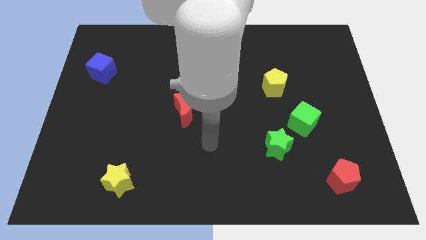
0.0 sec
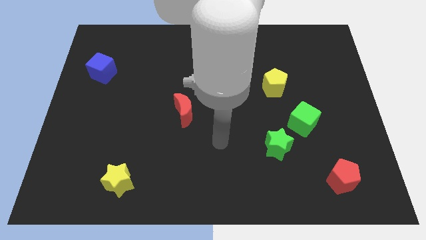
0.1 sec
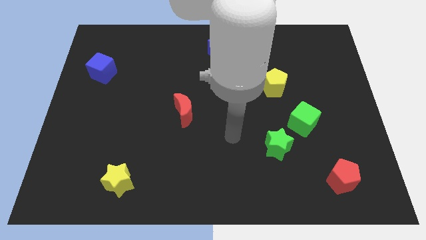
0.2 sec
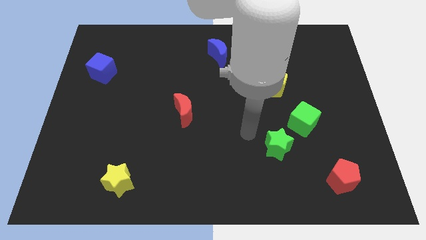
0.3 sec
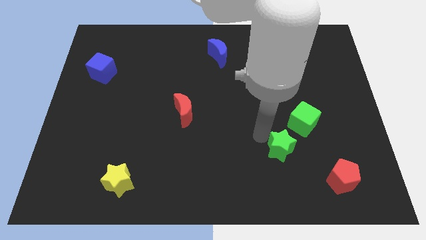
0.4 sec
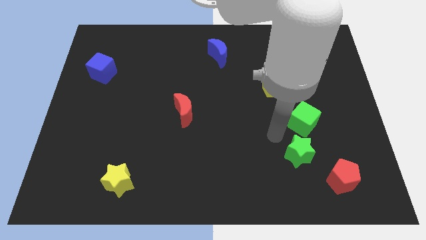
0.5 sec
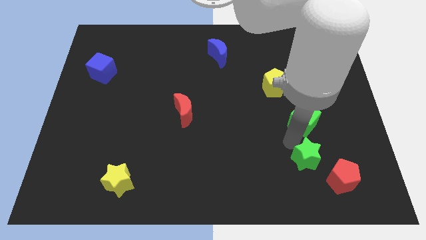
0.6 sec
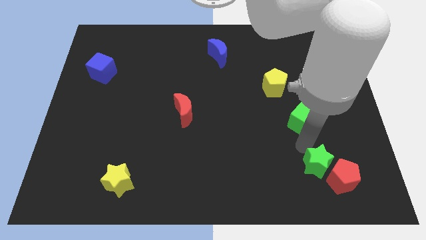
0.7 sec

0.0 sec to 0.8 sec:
separate the green cube from the green star

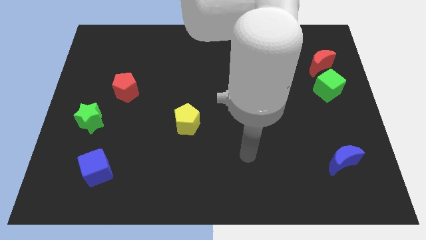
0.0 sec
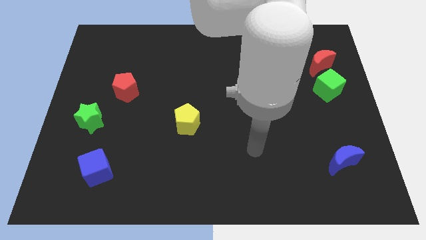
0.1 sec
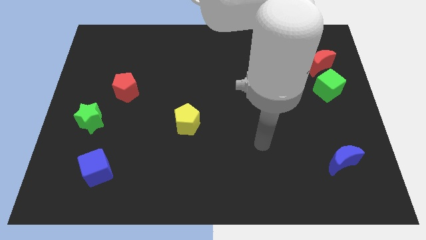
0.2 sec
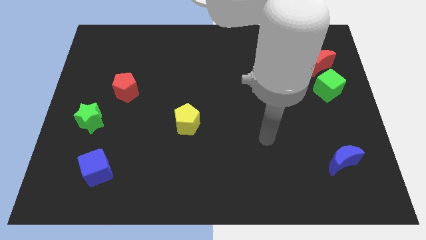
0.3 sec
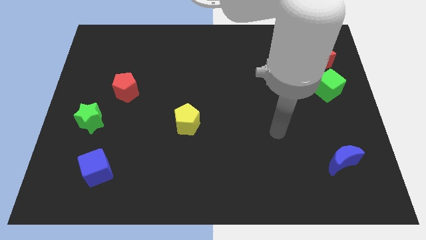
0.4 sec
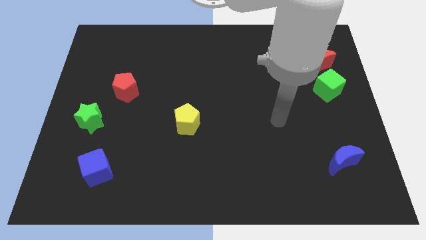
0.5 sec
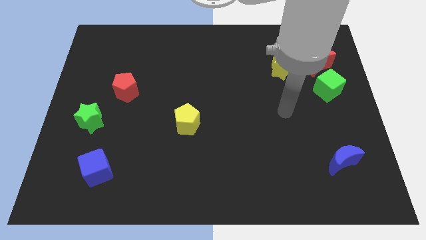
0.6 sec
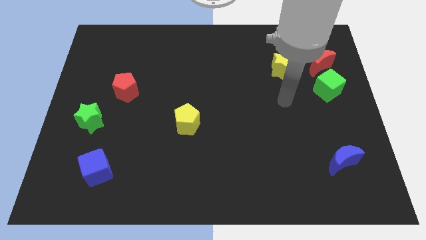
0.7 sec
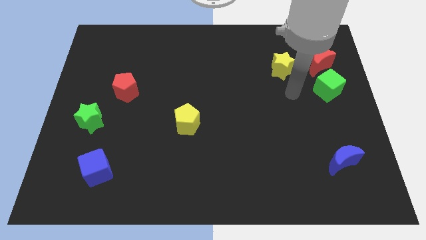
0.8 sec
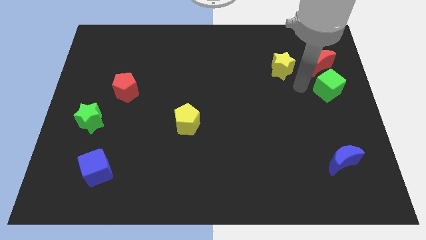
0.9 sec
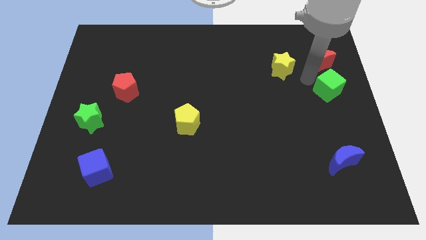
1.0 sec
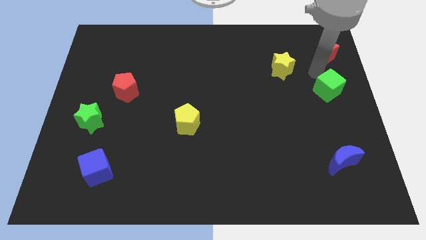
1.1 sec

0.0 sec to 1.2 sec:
separate the green cube from the red moon

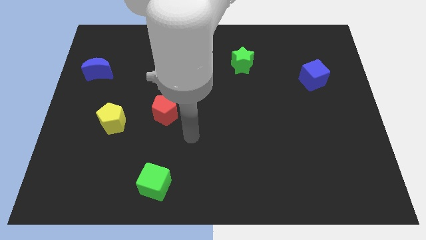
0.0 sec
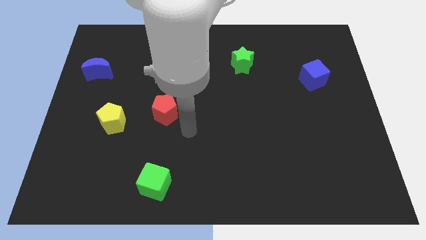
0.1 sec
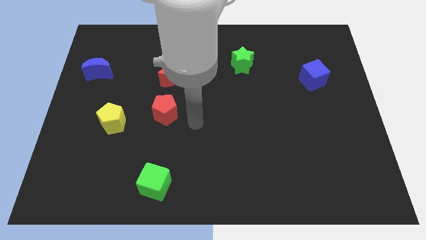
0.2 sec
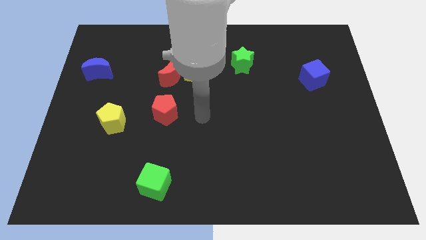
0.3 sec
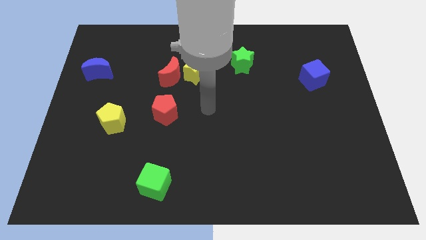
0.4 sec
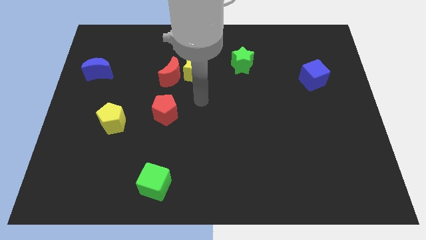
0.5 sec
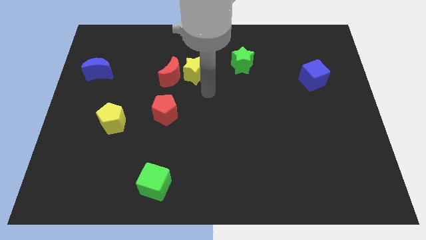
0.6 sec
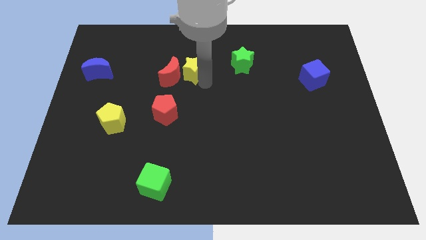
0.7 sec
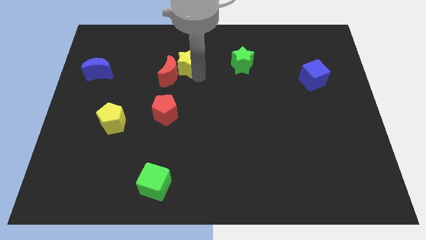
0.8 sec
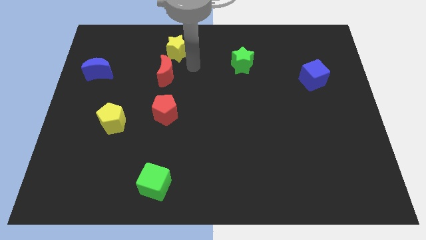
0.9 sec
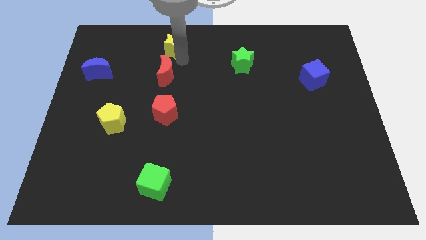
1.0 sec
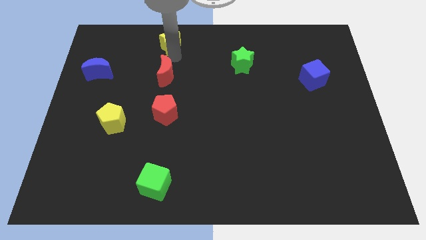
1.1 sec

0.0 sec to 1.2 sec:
separate the red moon from the yellow star

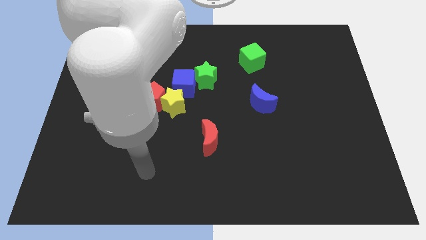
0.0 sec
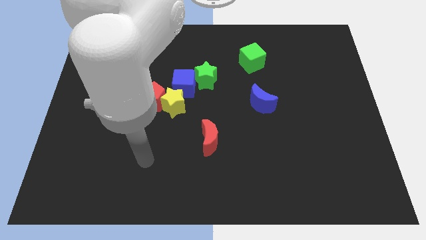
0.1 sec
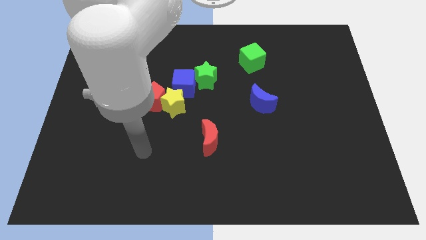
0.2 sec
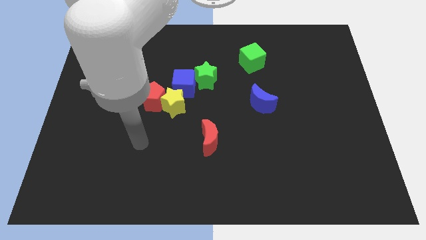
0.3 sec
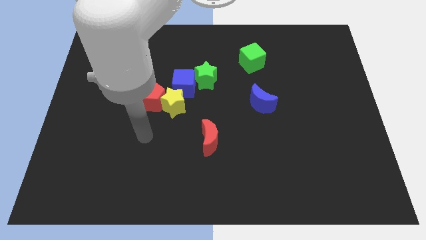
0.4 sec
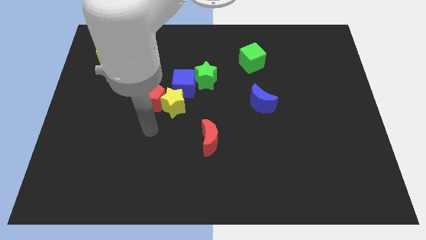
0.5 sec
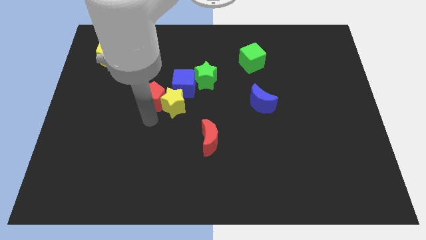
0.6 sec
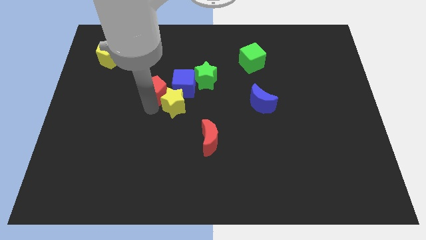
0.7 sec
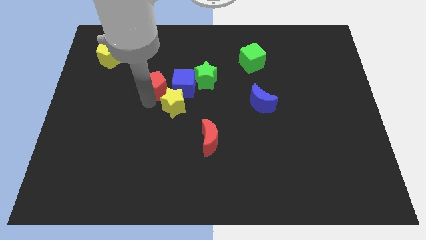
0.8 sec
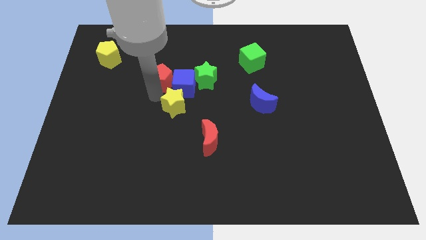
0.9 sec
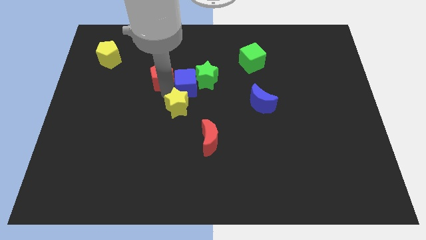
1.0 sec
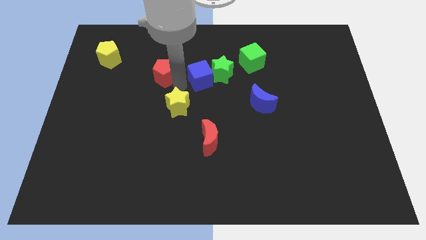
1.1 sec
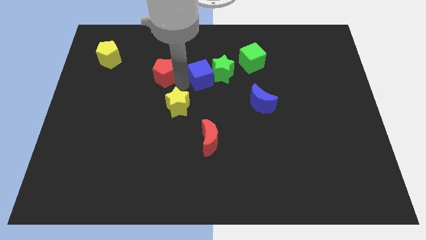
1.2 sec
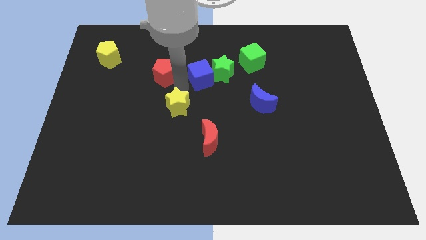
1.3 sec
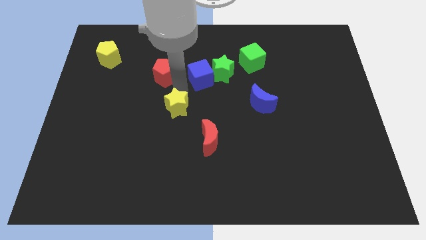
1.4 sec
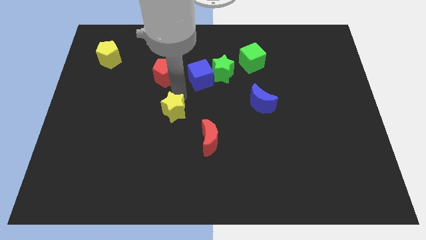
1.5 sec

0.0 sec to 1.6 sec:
separate the yellow star from the red pentagon and blue cube

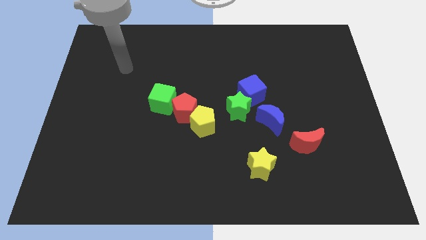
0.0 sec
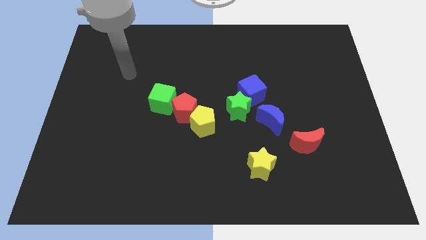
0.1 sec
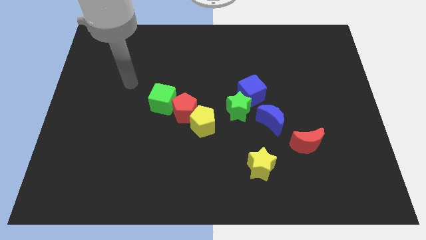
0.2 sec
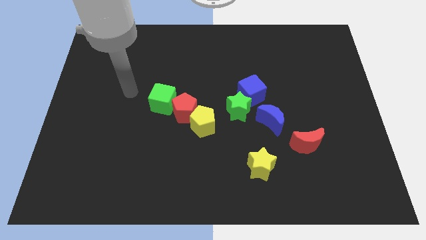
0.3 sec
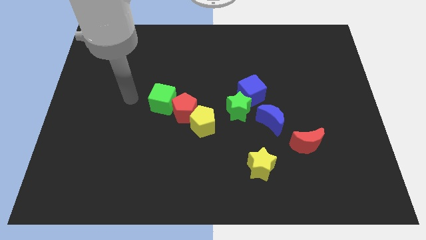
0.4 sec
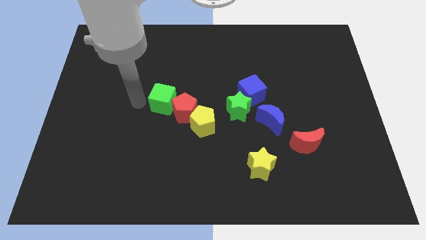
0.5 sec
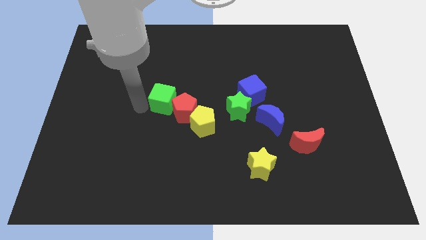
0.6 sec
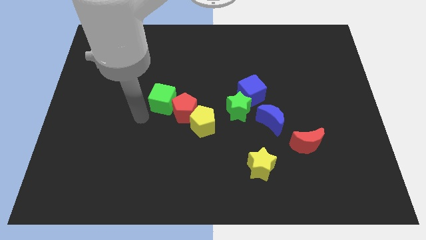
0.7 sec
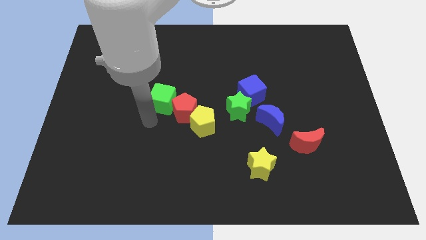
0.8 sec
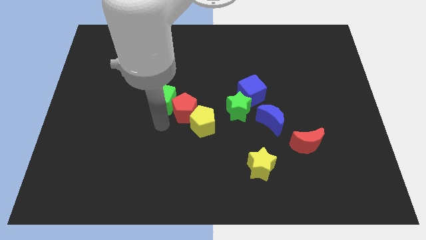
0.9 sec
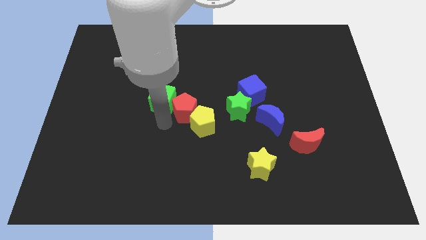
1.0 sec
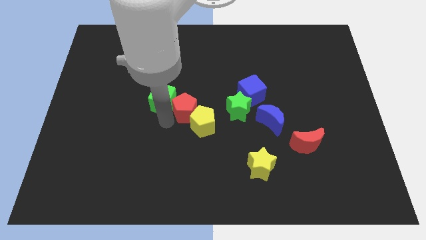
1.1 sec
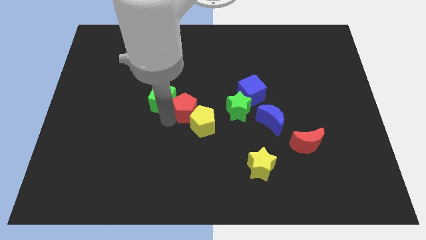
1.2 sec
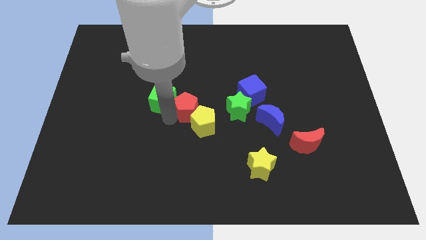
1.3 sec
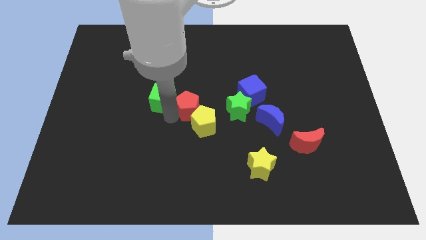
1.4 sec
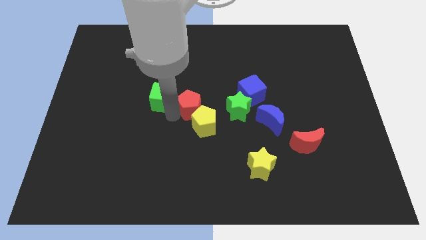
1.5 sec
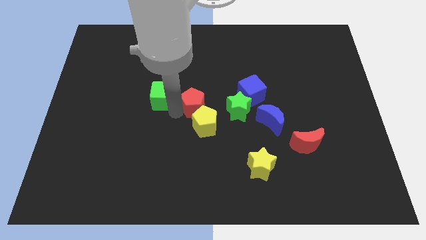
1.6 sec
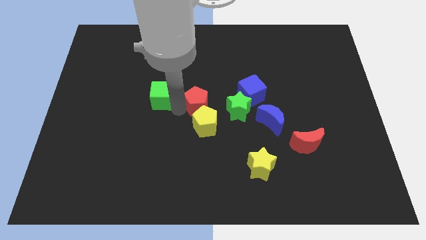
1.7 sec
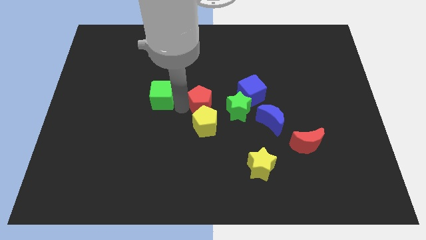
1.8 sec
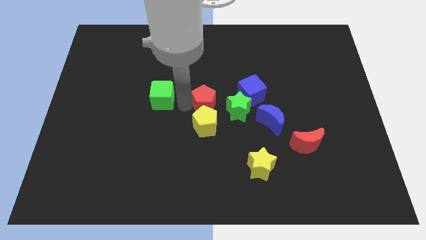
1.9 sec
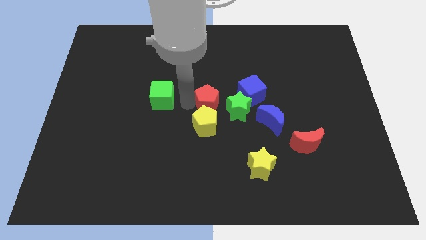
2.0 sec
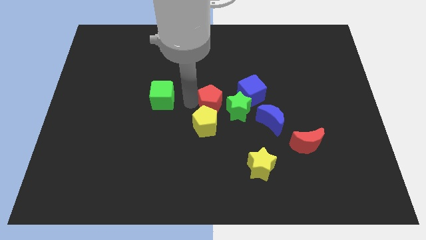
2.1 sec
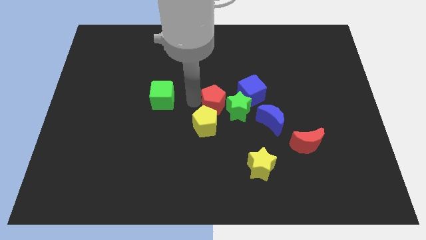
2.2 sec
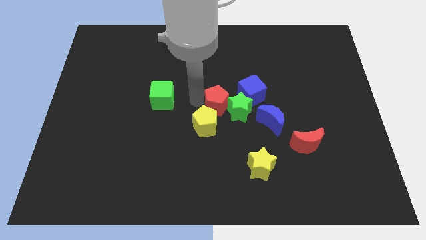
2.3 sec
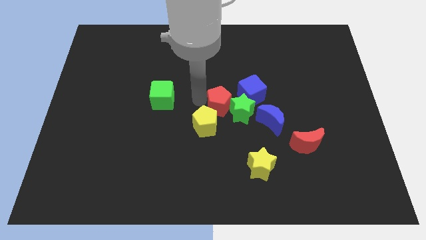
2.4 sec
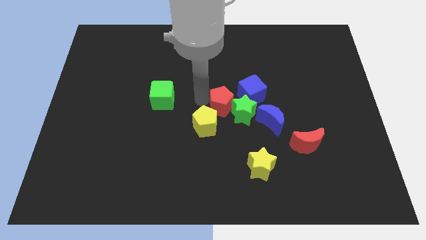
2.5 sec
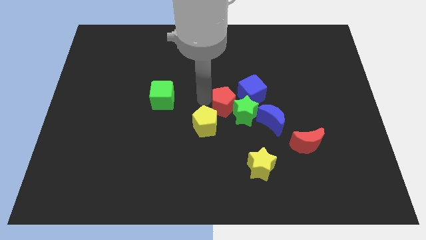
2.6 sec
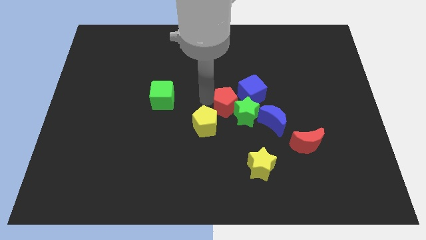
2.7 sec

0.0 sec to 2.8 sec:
pull the red pentagon apart from the yellow pentagon and green cube

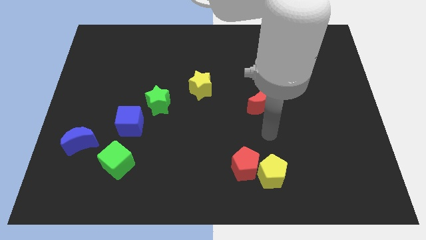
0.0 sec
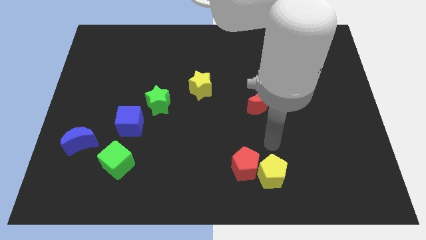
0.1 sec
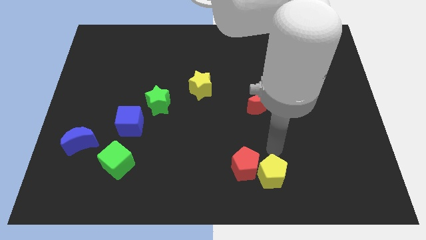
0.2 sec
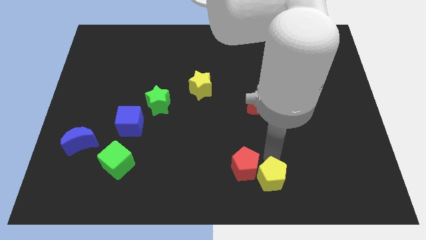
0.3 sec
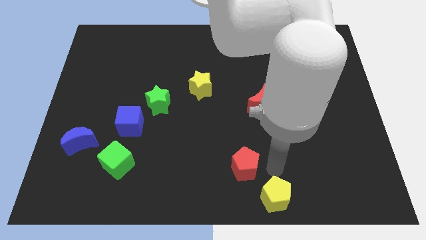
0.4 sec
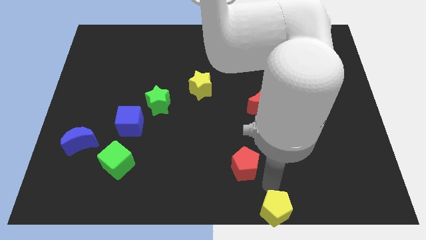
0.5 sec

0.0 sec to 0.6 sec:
pull the red pentagon apart from the yellow pentagon

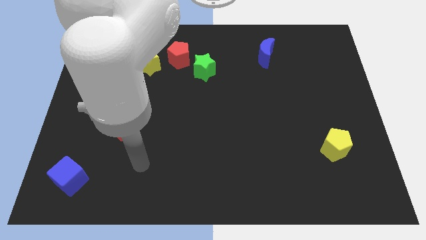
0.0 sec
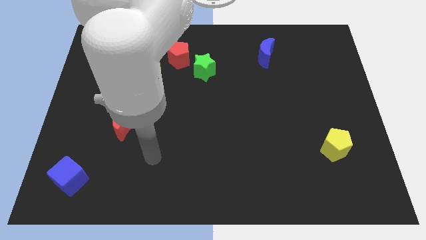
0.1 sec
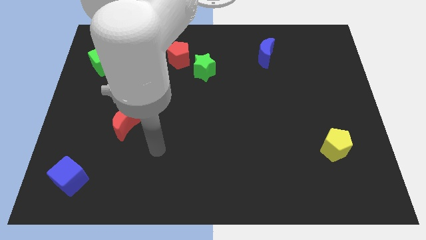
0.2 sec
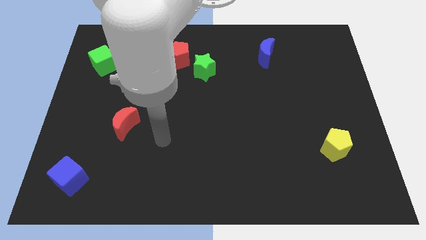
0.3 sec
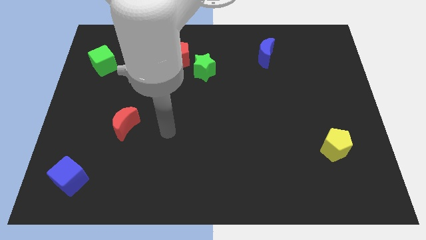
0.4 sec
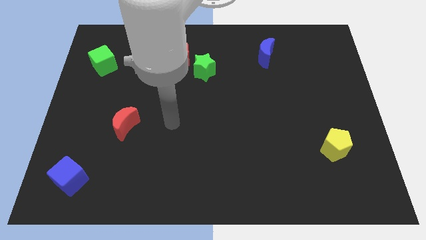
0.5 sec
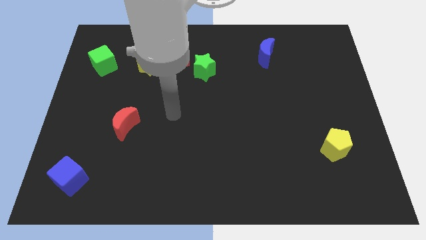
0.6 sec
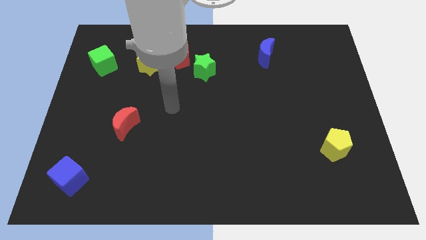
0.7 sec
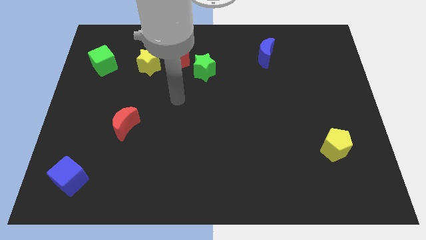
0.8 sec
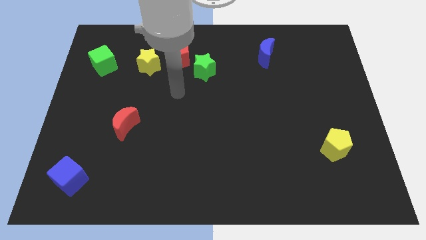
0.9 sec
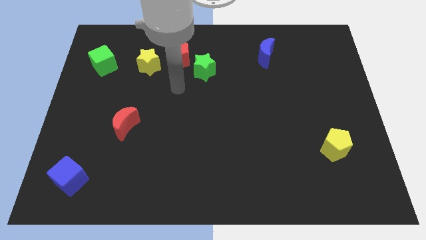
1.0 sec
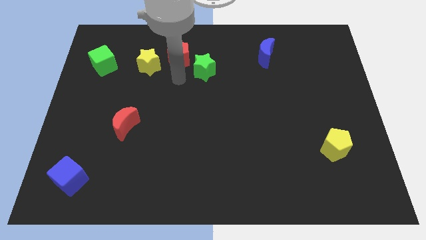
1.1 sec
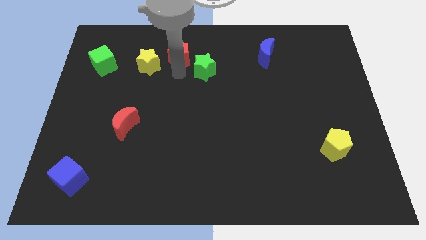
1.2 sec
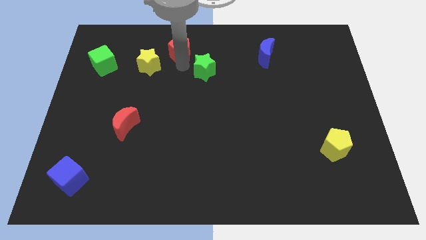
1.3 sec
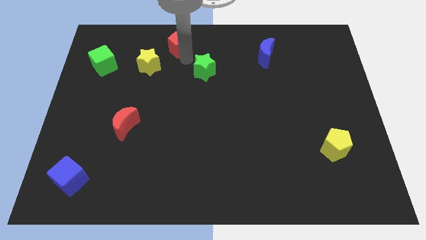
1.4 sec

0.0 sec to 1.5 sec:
separate the green star from the red pentagon
